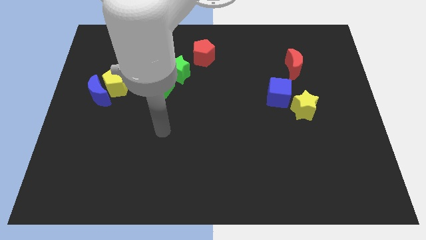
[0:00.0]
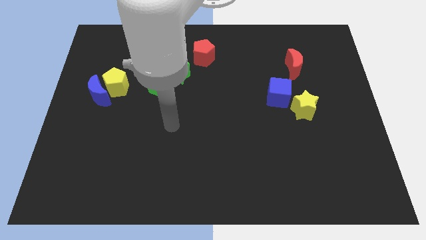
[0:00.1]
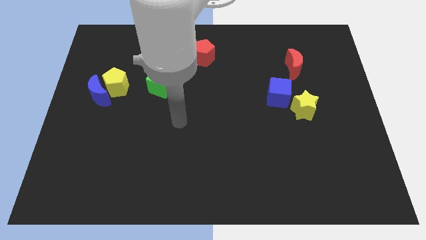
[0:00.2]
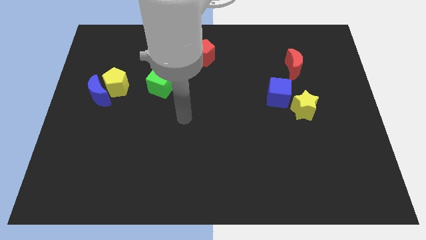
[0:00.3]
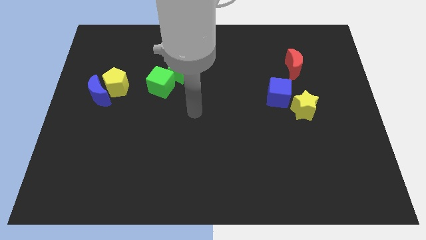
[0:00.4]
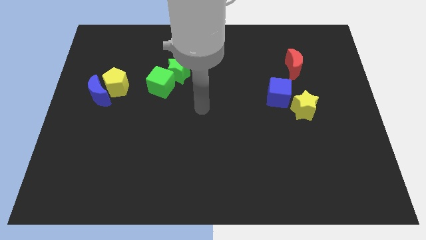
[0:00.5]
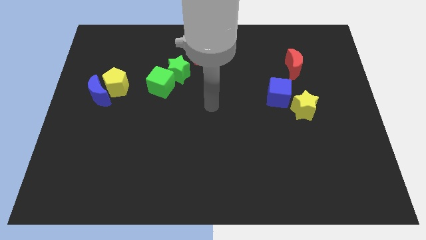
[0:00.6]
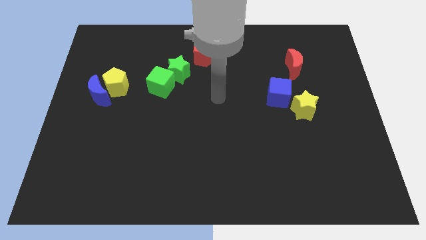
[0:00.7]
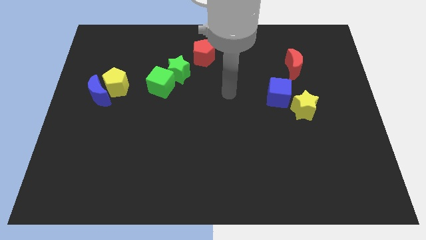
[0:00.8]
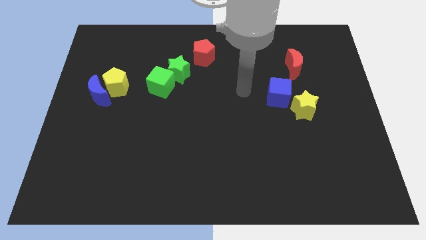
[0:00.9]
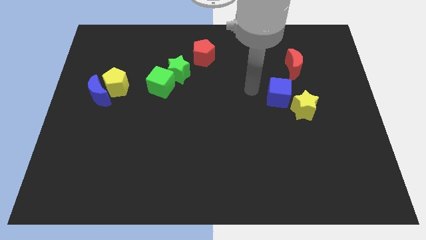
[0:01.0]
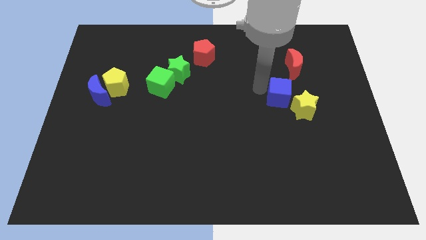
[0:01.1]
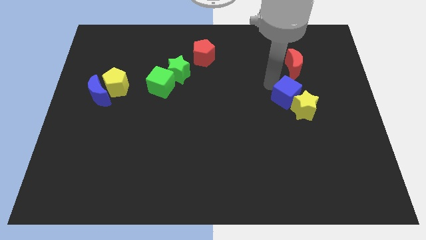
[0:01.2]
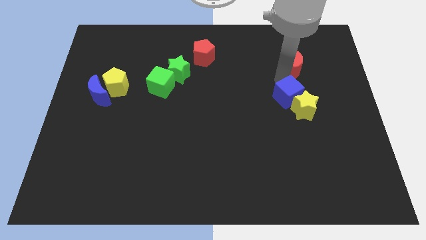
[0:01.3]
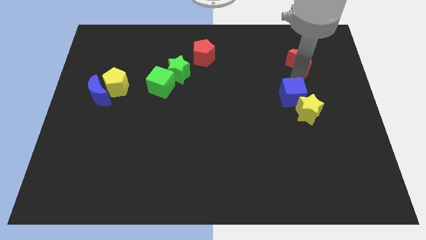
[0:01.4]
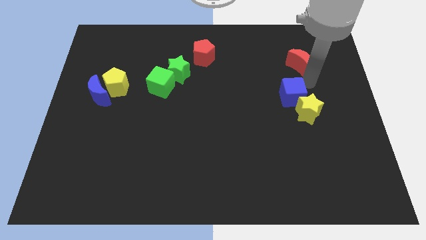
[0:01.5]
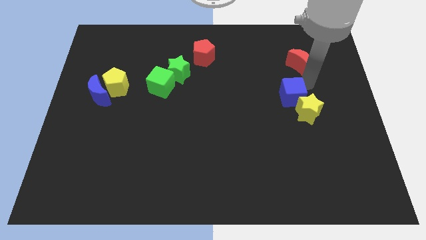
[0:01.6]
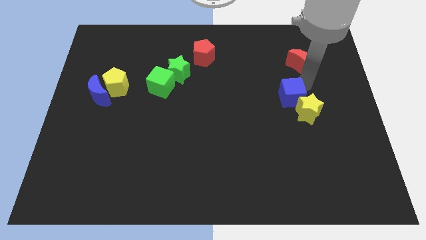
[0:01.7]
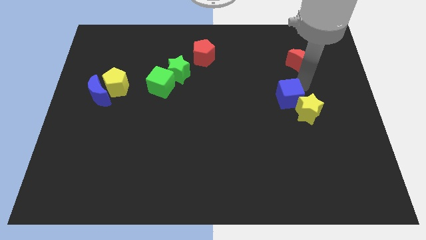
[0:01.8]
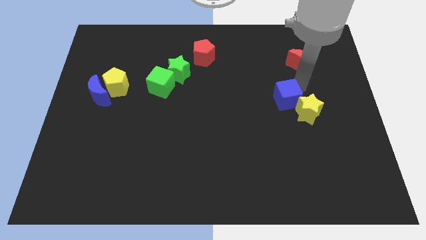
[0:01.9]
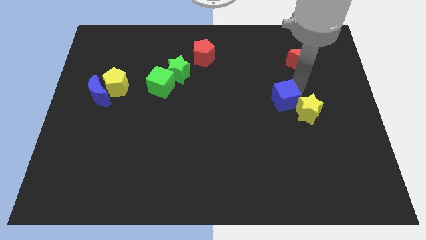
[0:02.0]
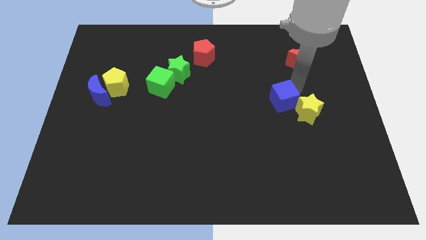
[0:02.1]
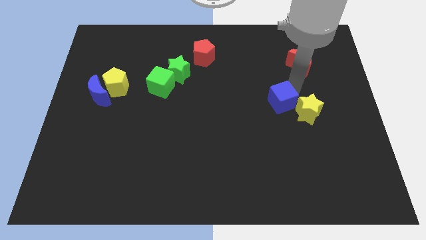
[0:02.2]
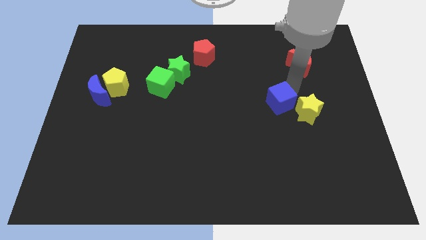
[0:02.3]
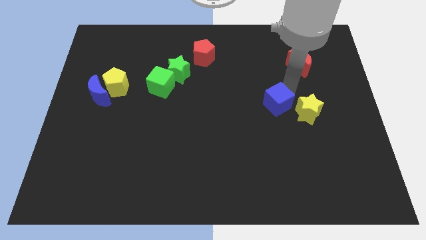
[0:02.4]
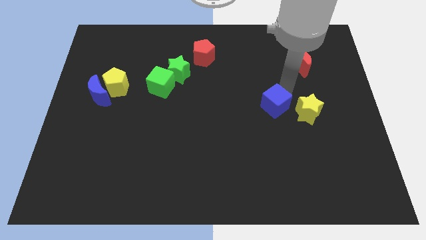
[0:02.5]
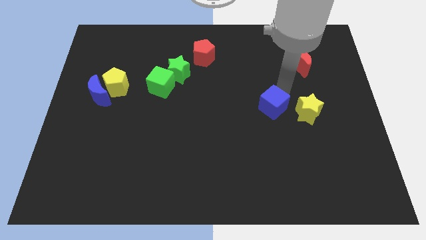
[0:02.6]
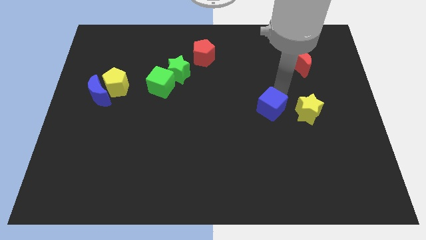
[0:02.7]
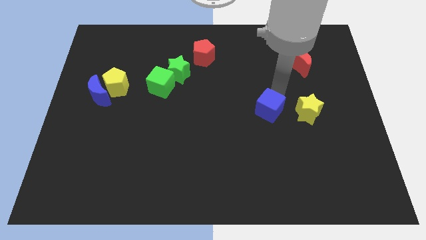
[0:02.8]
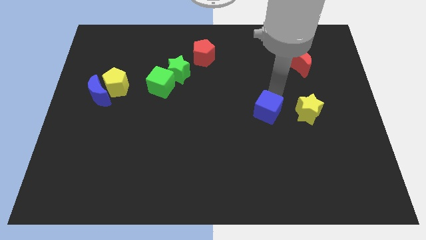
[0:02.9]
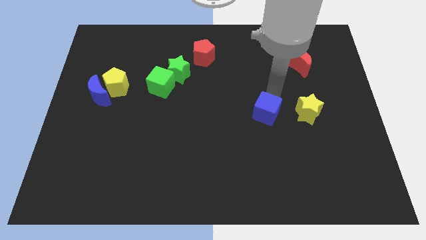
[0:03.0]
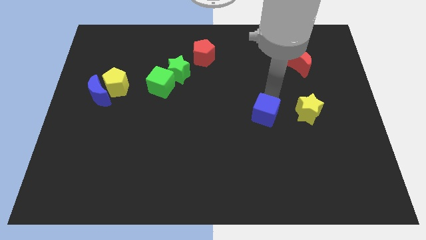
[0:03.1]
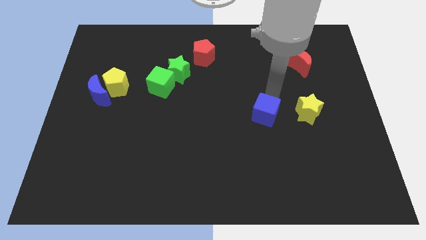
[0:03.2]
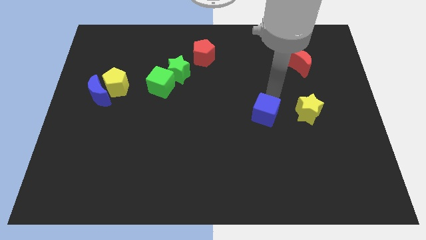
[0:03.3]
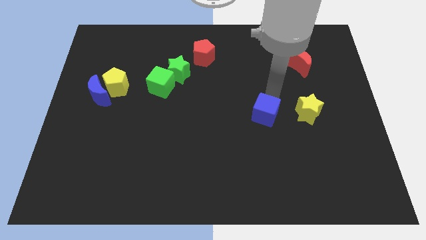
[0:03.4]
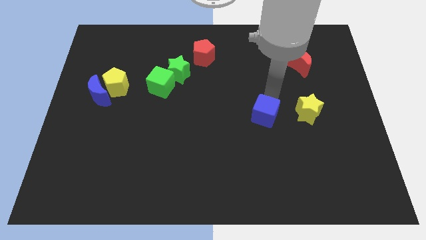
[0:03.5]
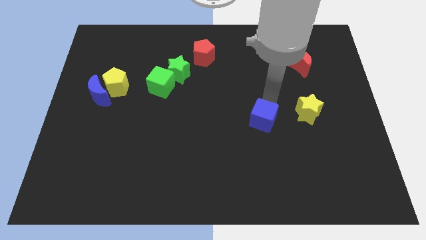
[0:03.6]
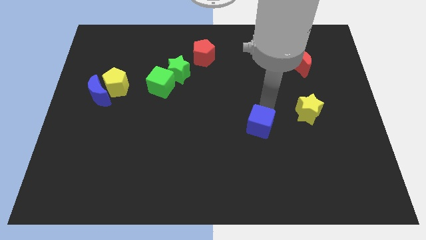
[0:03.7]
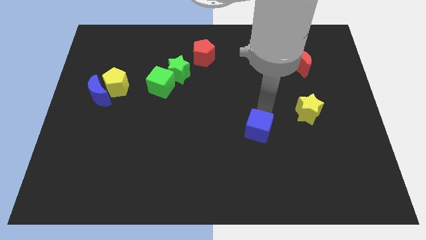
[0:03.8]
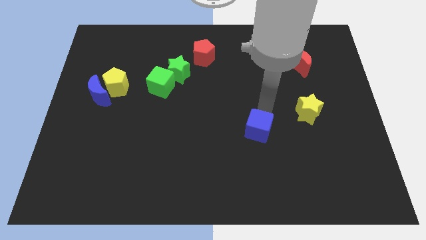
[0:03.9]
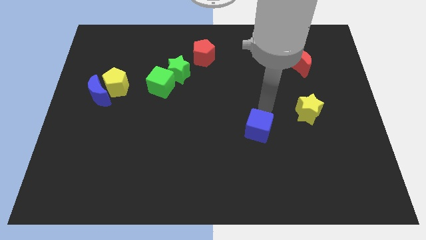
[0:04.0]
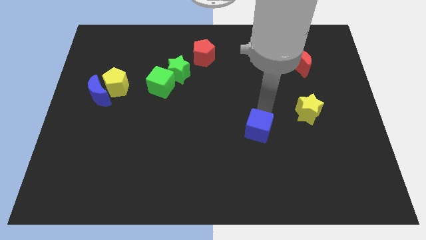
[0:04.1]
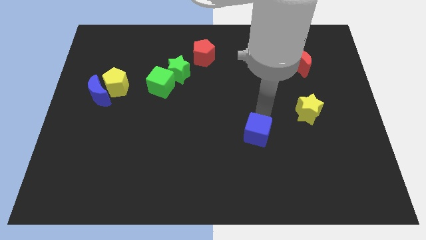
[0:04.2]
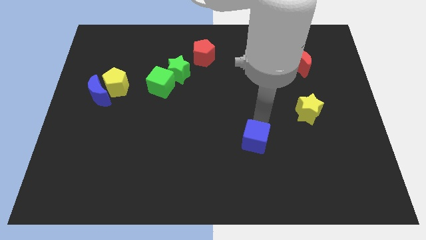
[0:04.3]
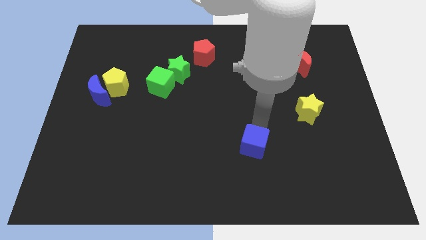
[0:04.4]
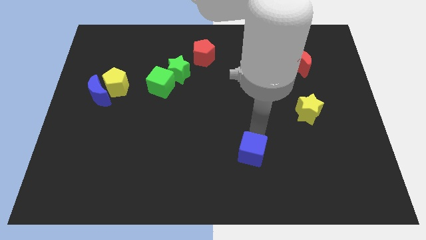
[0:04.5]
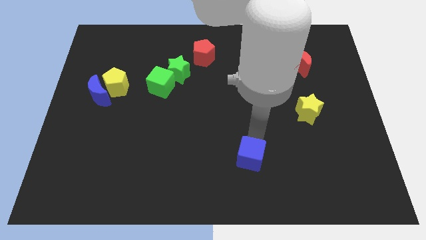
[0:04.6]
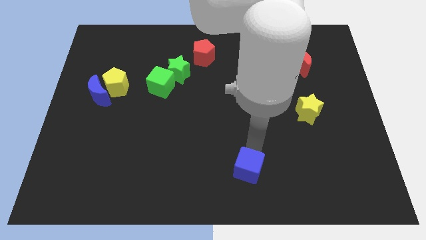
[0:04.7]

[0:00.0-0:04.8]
put the blue cube to the bottom

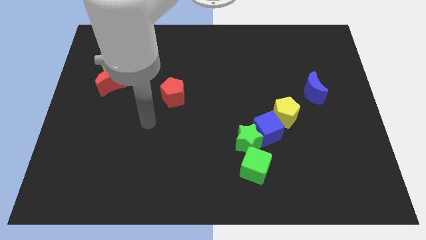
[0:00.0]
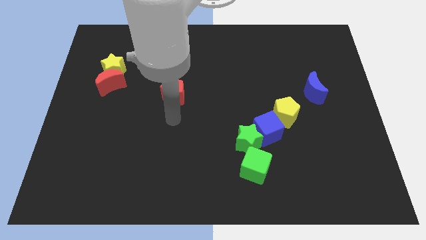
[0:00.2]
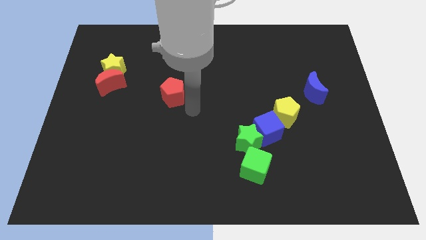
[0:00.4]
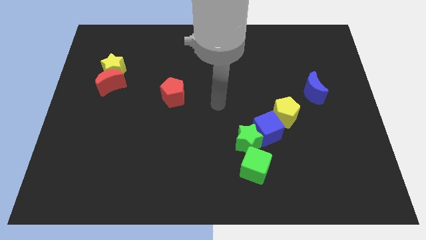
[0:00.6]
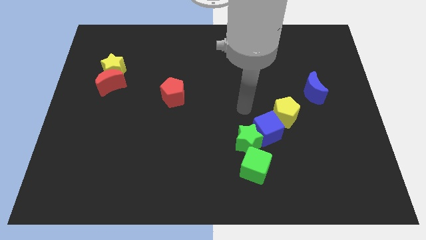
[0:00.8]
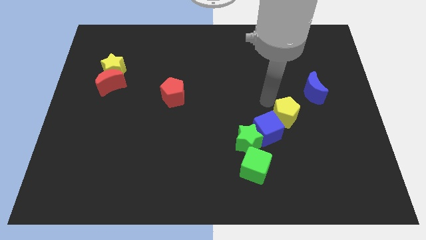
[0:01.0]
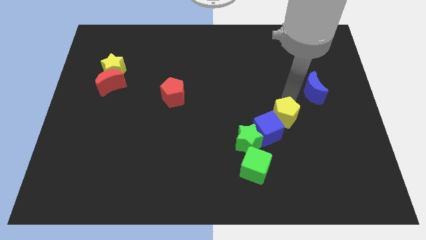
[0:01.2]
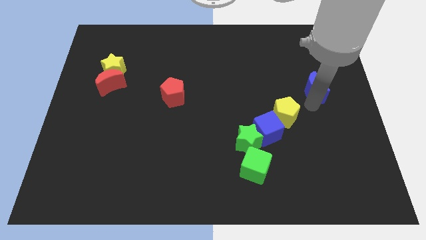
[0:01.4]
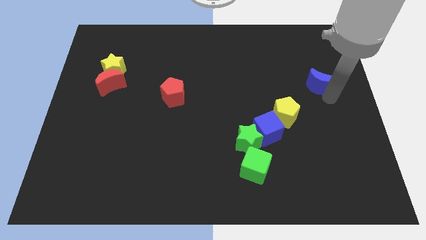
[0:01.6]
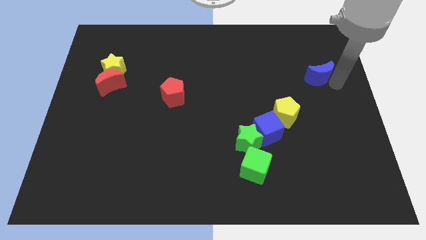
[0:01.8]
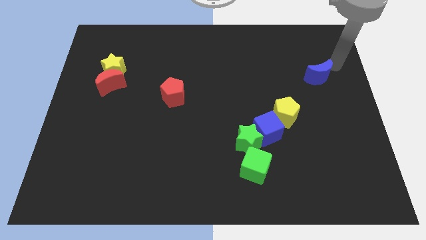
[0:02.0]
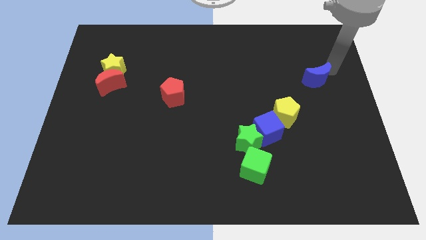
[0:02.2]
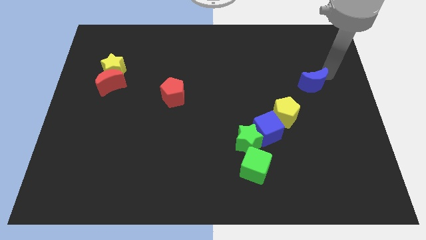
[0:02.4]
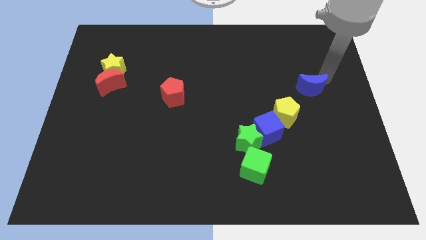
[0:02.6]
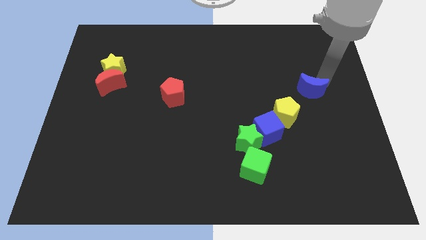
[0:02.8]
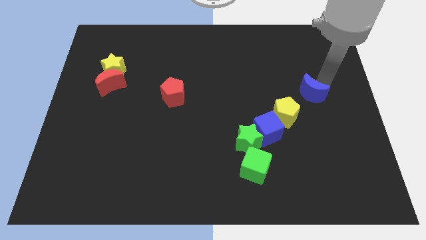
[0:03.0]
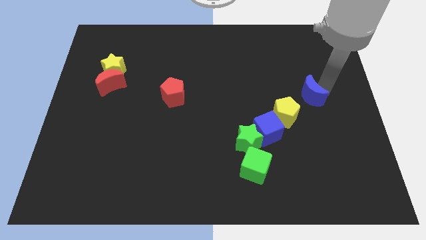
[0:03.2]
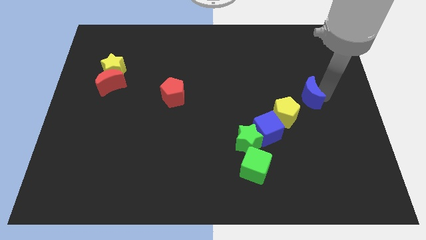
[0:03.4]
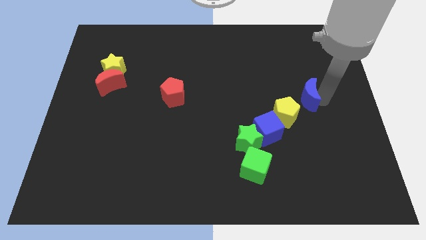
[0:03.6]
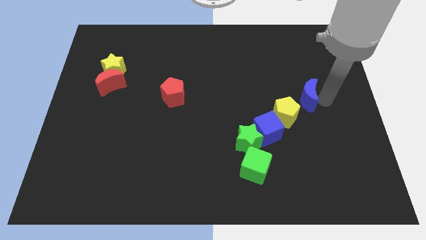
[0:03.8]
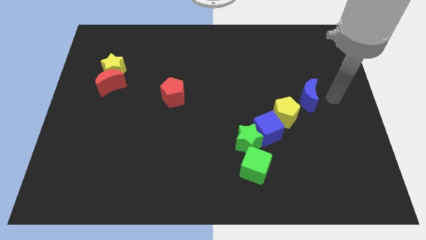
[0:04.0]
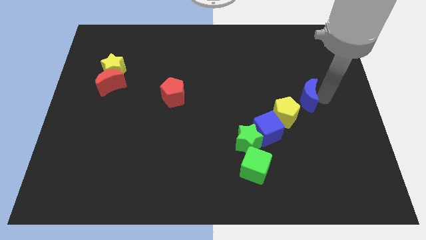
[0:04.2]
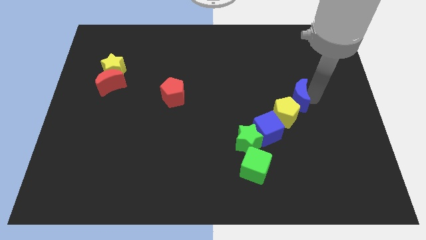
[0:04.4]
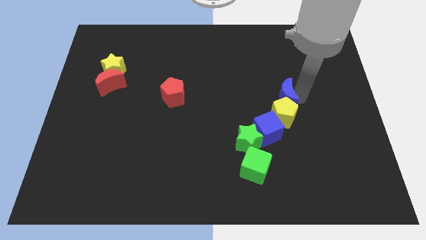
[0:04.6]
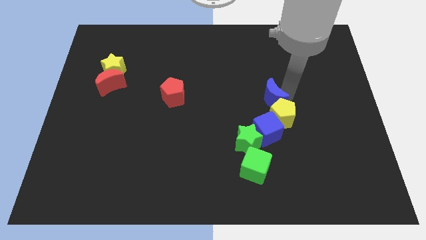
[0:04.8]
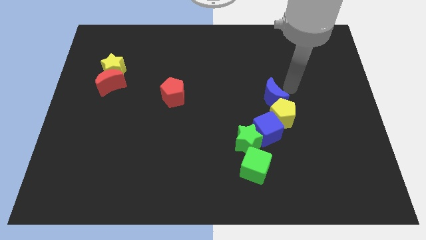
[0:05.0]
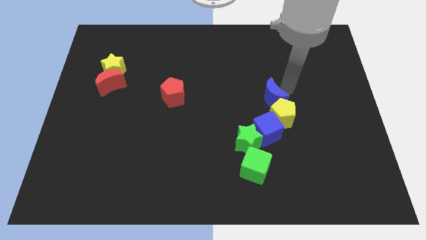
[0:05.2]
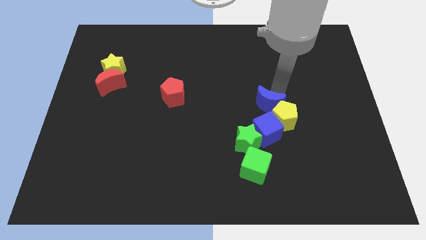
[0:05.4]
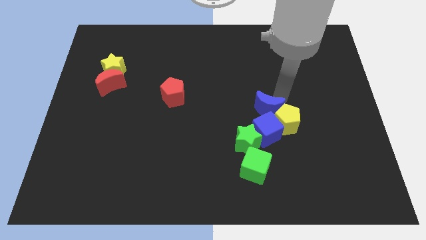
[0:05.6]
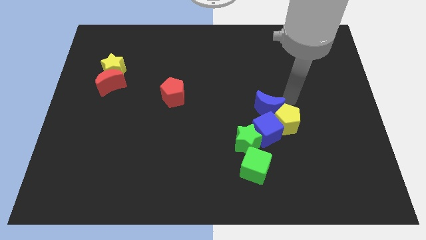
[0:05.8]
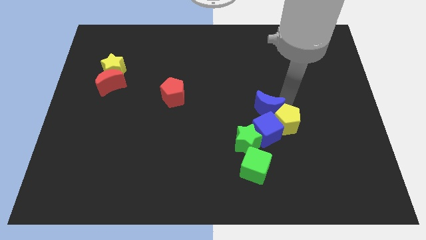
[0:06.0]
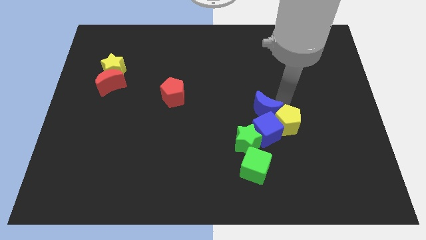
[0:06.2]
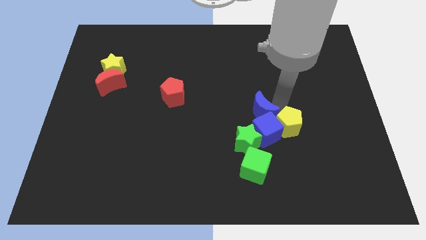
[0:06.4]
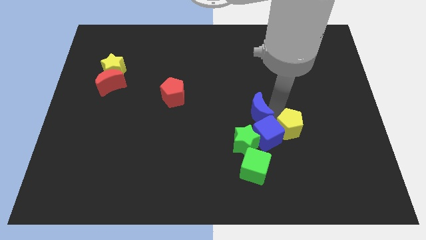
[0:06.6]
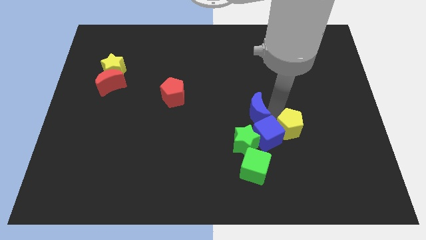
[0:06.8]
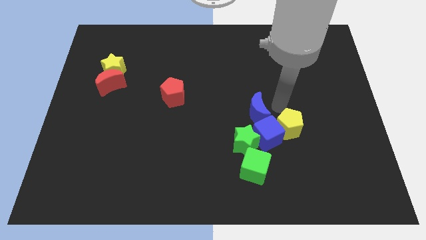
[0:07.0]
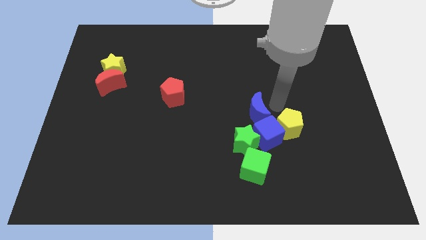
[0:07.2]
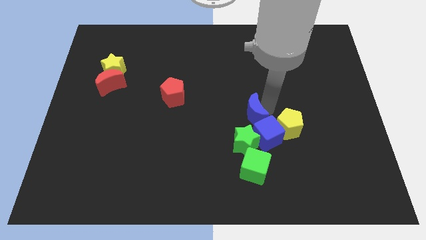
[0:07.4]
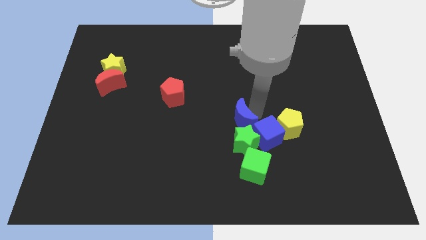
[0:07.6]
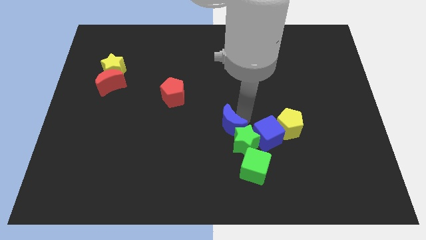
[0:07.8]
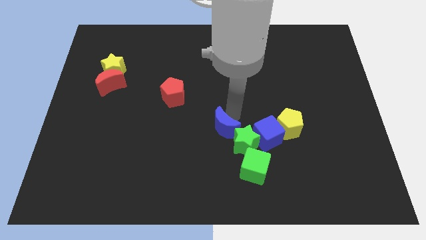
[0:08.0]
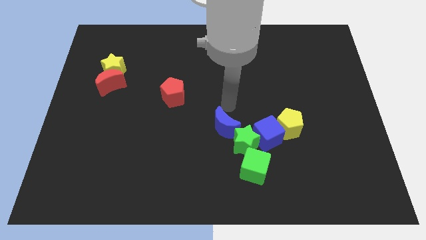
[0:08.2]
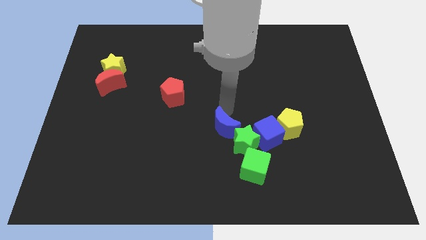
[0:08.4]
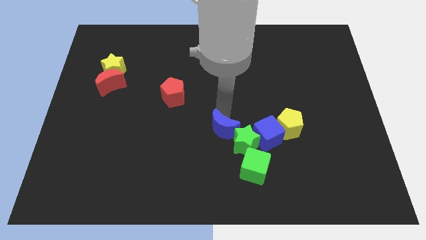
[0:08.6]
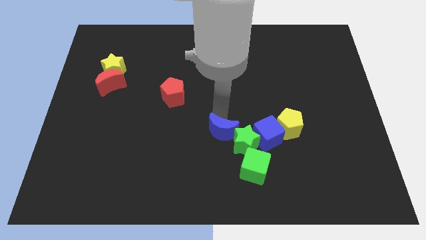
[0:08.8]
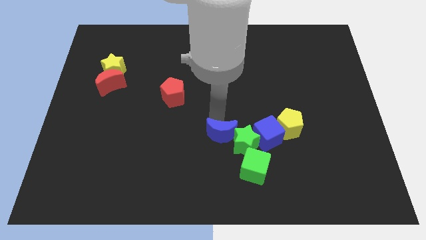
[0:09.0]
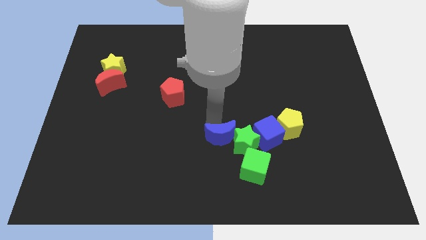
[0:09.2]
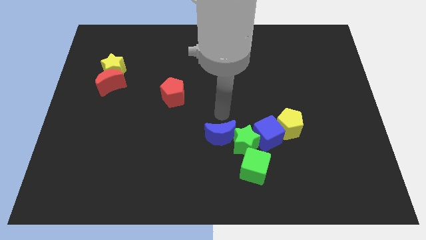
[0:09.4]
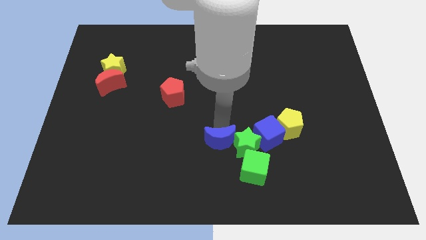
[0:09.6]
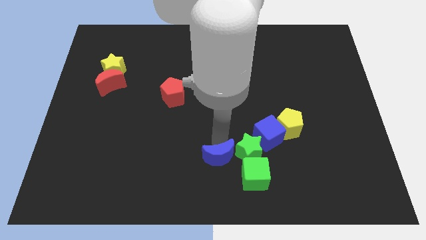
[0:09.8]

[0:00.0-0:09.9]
push the blue moon to the bottom side
